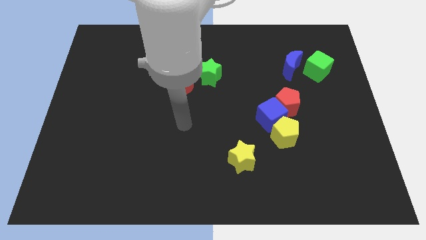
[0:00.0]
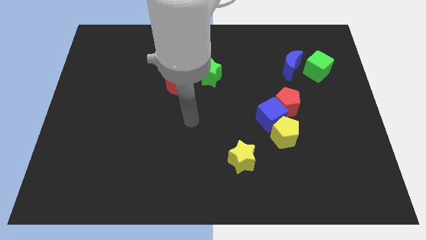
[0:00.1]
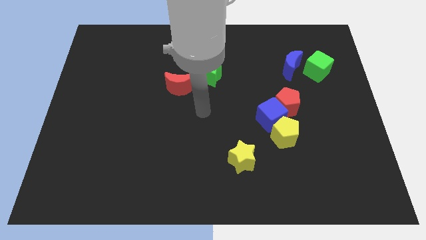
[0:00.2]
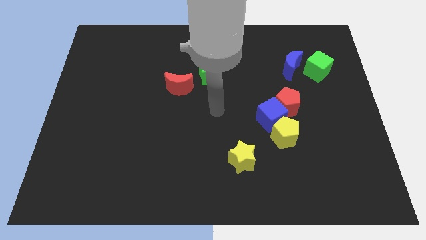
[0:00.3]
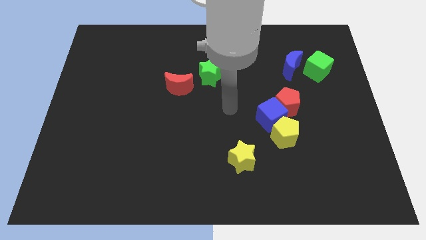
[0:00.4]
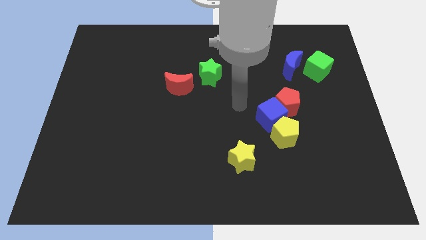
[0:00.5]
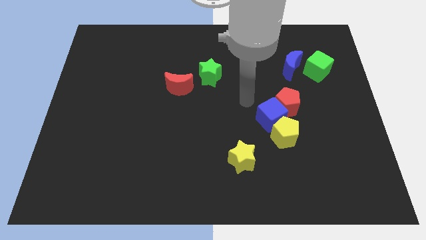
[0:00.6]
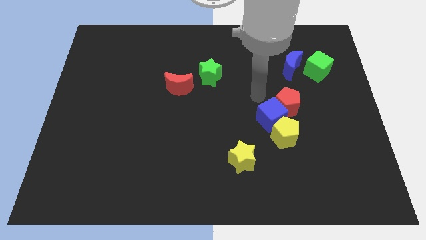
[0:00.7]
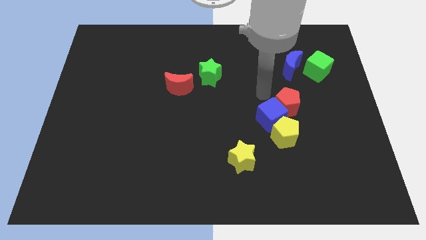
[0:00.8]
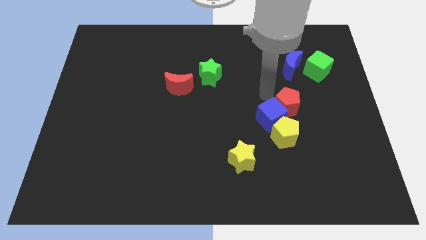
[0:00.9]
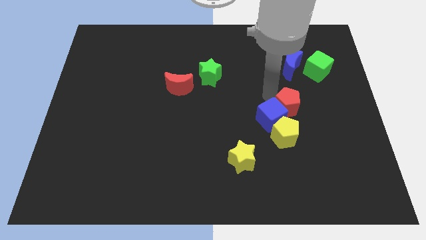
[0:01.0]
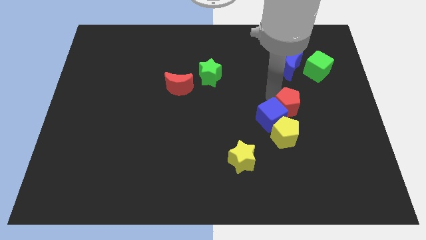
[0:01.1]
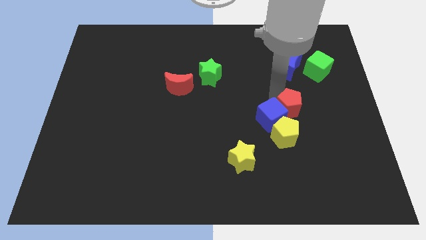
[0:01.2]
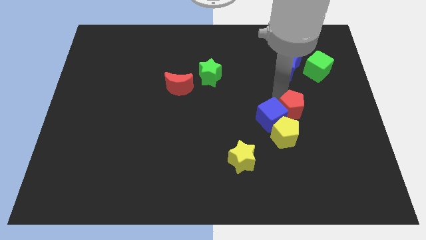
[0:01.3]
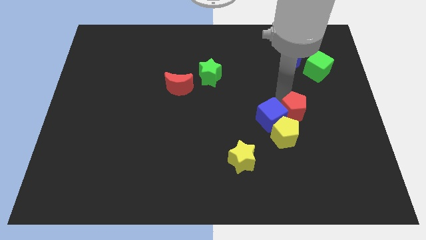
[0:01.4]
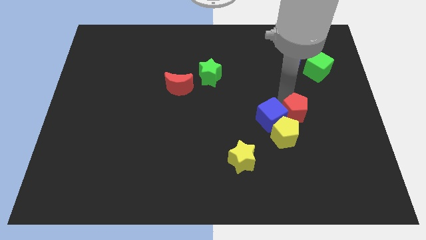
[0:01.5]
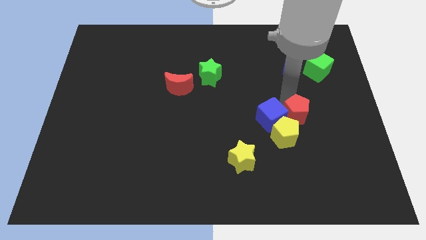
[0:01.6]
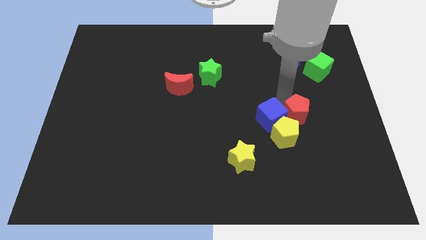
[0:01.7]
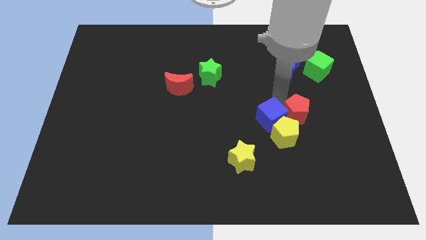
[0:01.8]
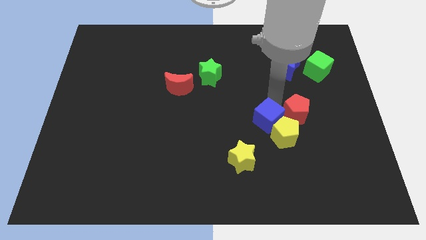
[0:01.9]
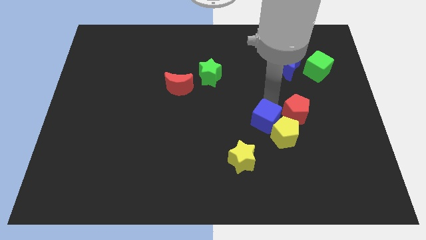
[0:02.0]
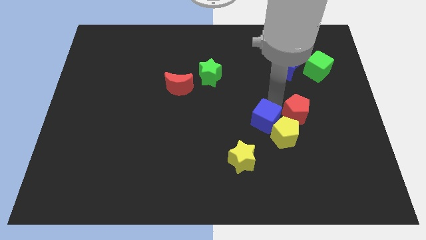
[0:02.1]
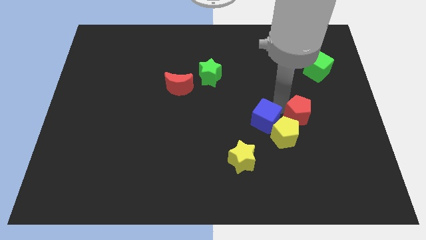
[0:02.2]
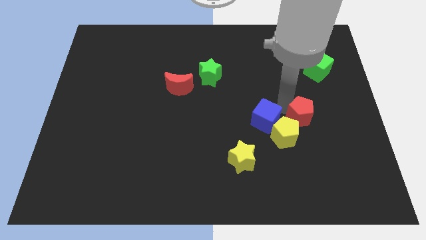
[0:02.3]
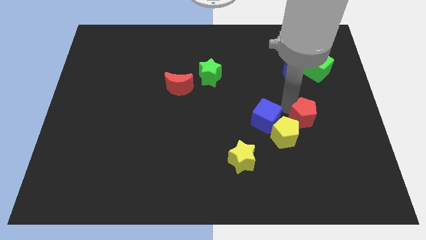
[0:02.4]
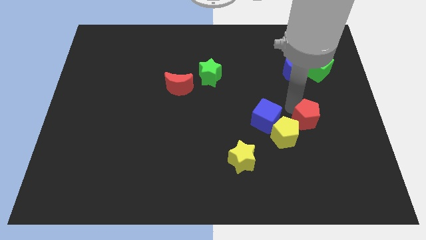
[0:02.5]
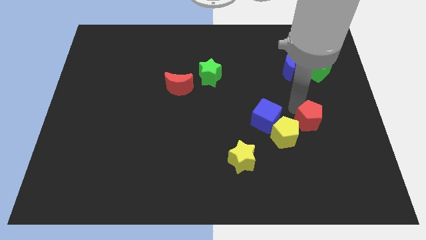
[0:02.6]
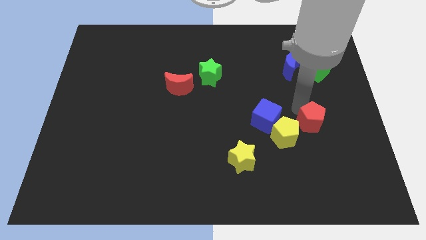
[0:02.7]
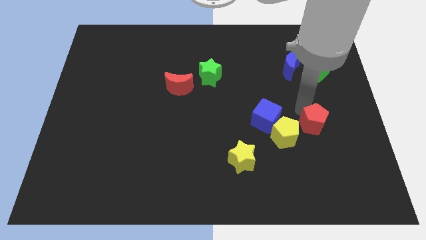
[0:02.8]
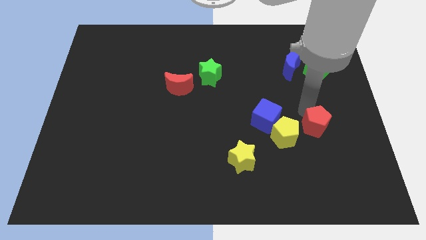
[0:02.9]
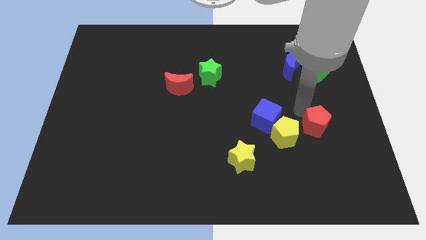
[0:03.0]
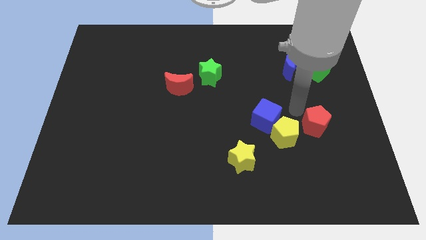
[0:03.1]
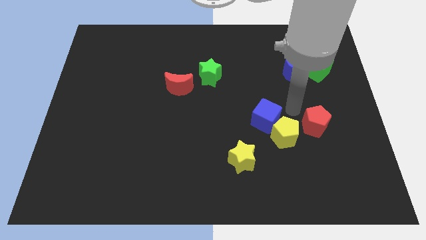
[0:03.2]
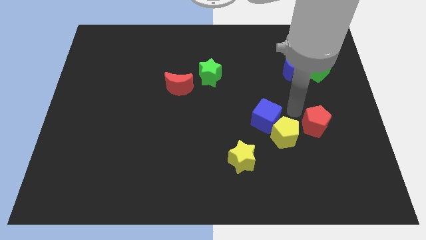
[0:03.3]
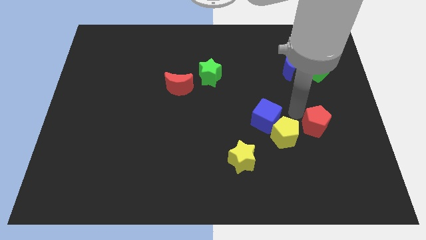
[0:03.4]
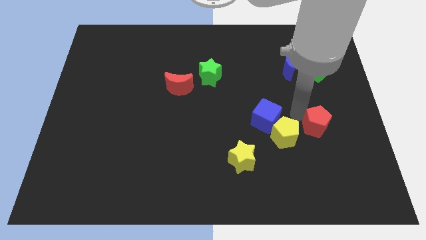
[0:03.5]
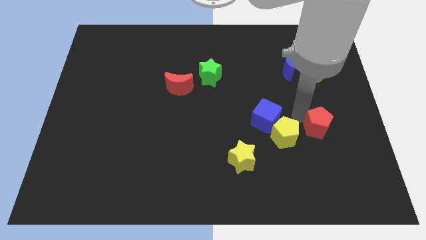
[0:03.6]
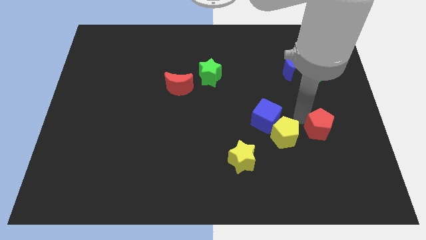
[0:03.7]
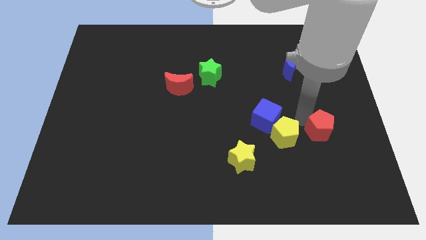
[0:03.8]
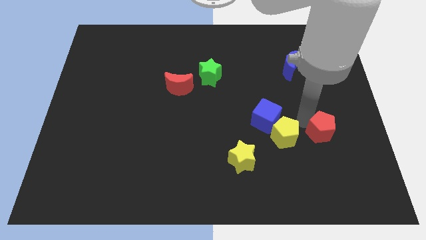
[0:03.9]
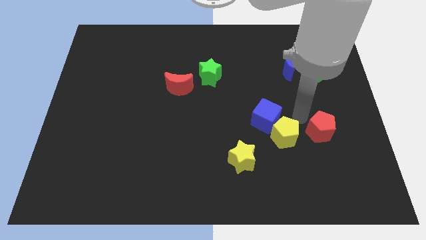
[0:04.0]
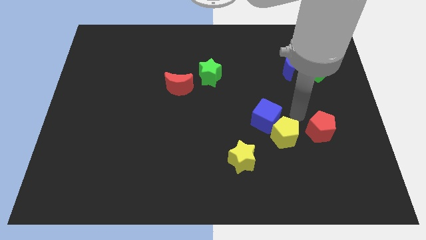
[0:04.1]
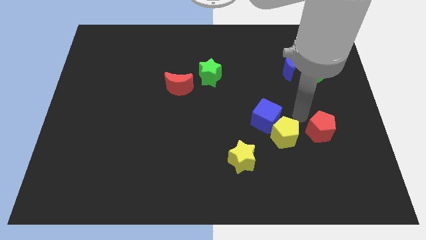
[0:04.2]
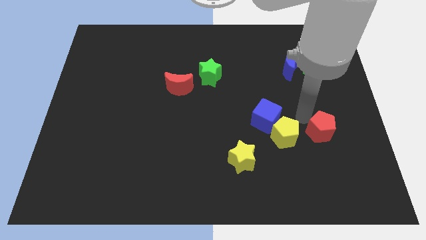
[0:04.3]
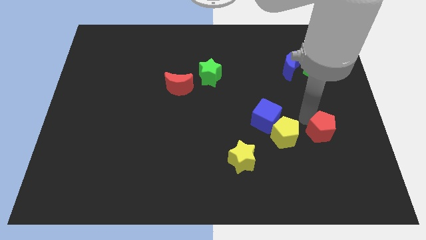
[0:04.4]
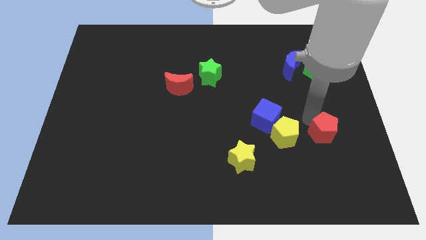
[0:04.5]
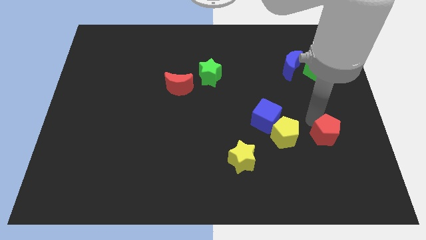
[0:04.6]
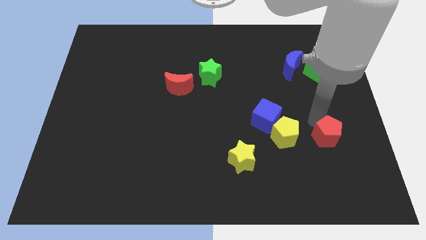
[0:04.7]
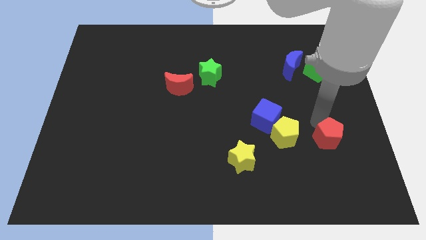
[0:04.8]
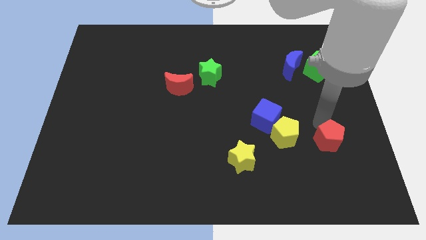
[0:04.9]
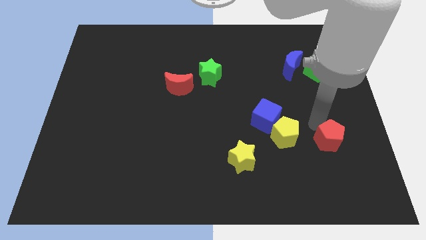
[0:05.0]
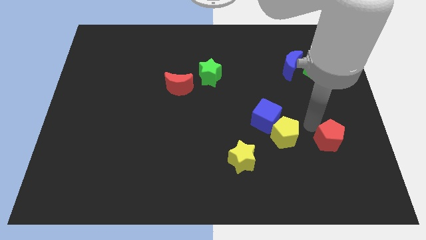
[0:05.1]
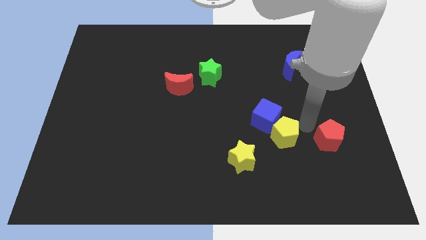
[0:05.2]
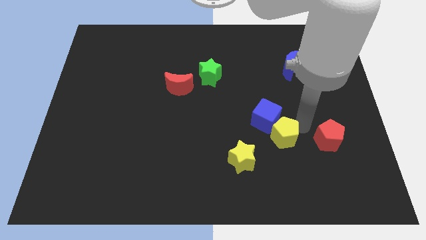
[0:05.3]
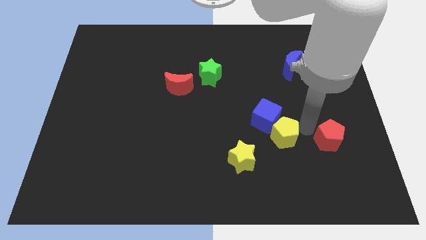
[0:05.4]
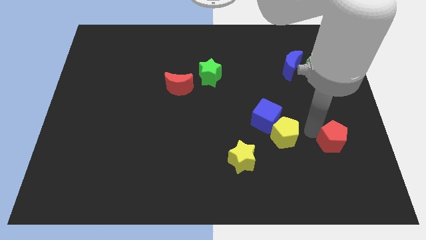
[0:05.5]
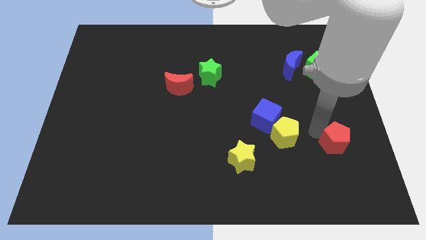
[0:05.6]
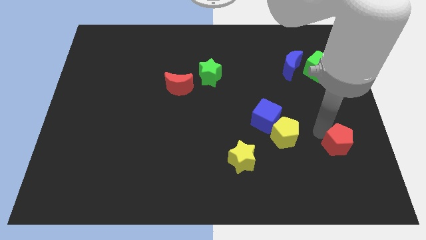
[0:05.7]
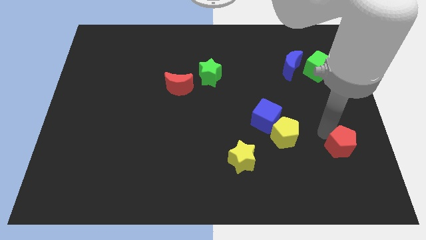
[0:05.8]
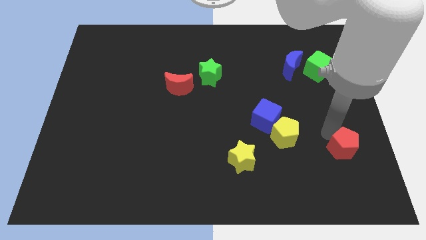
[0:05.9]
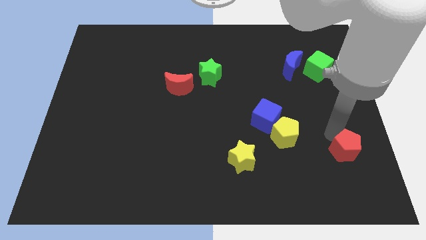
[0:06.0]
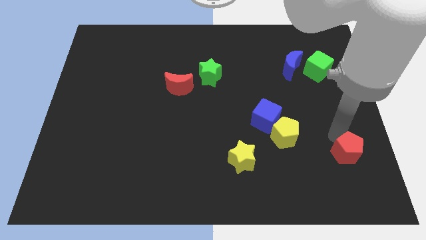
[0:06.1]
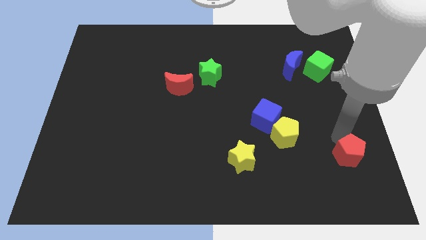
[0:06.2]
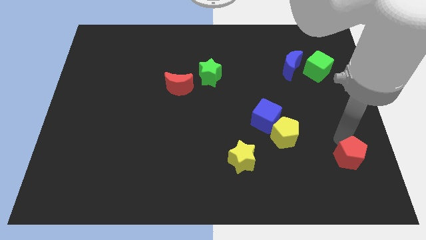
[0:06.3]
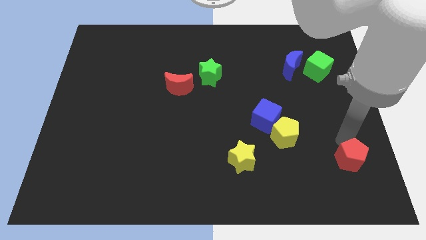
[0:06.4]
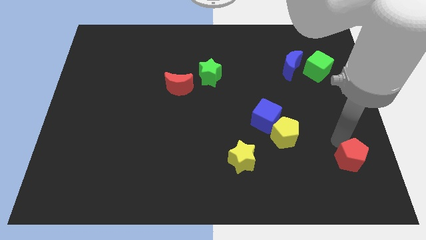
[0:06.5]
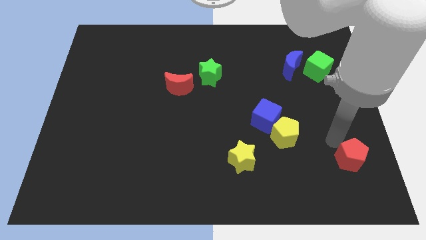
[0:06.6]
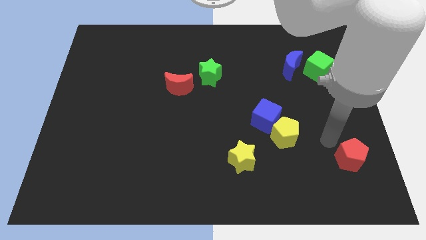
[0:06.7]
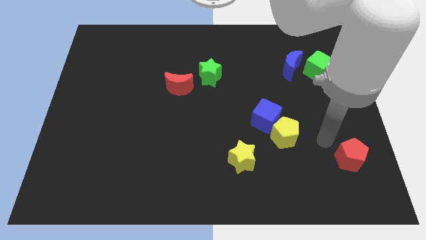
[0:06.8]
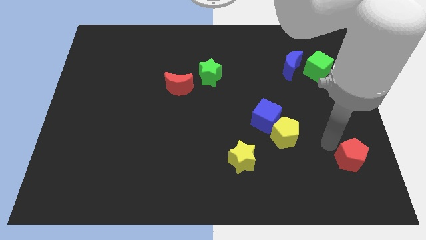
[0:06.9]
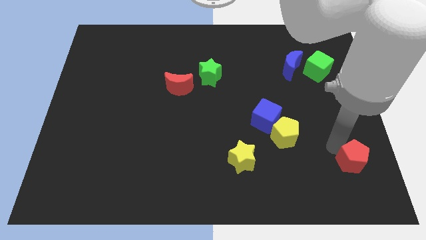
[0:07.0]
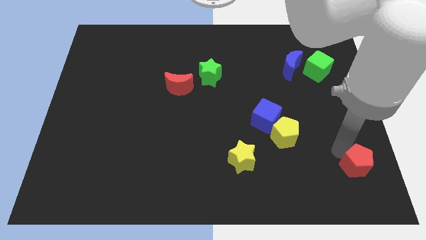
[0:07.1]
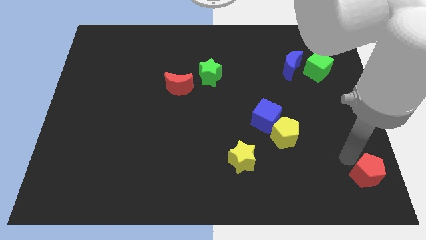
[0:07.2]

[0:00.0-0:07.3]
put the red pentagon to the bottom right of the board

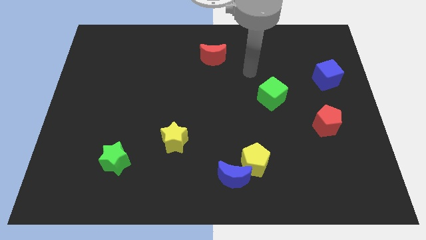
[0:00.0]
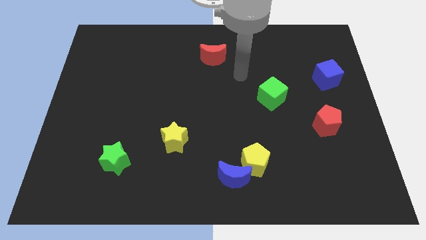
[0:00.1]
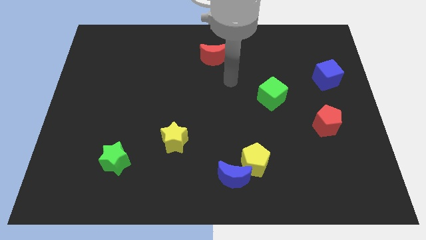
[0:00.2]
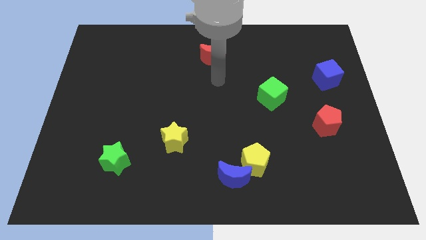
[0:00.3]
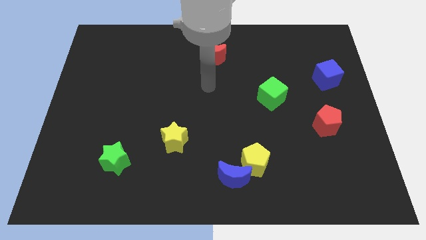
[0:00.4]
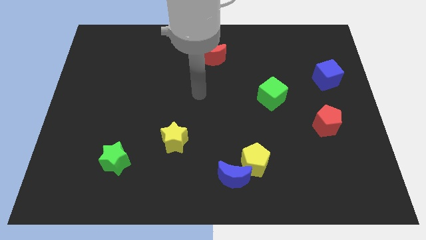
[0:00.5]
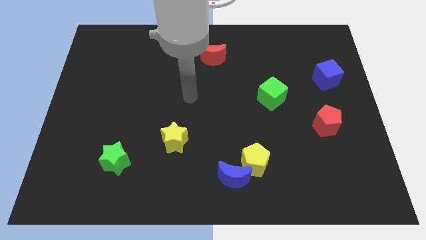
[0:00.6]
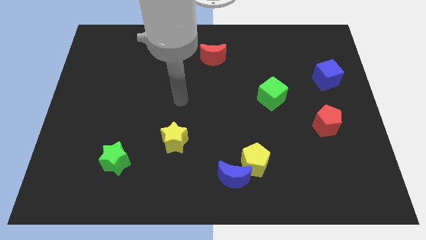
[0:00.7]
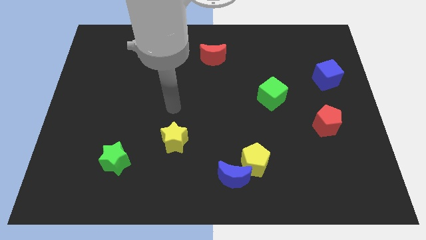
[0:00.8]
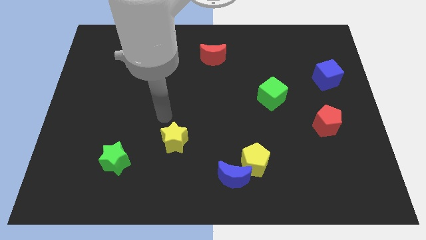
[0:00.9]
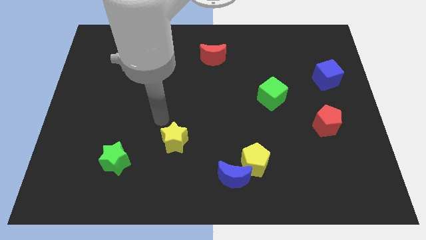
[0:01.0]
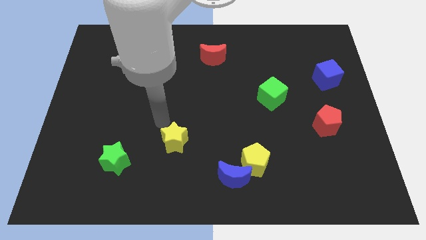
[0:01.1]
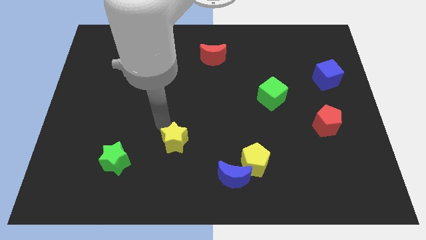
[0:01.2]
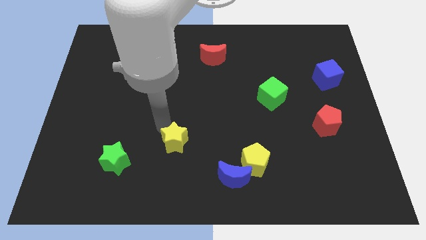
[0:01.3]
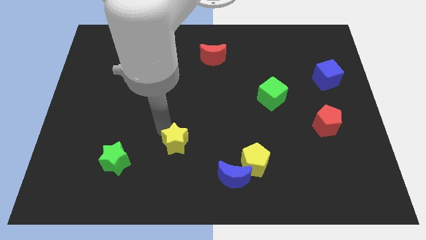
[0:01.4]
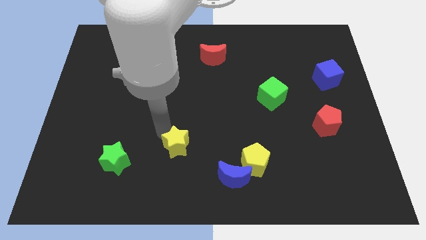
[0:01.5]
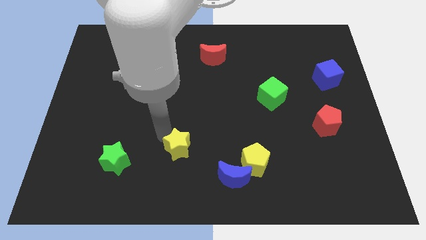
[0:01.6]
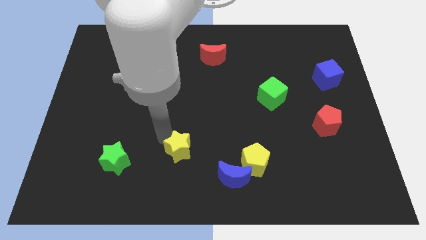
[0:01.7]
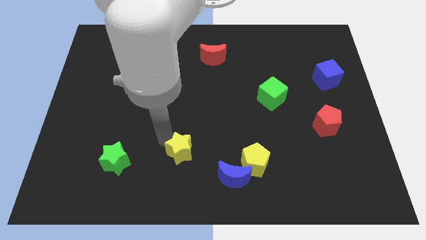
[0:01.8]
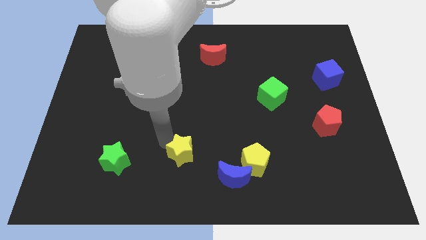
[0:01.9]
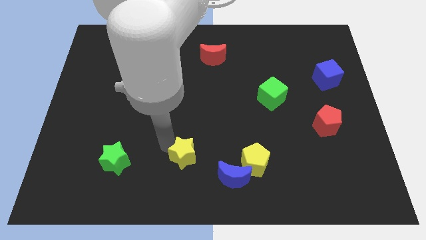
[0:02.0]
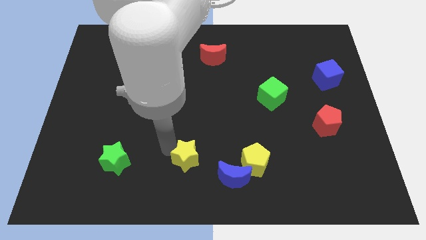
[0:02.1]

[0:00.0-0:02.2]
push the yellow star to the bottom
